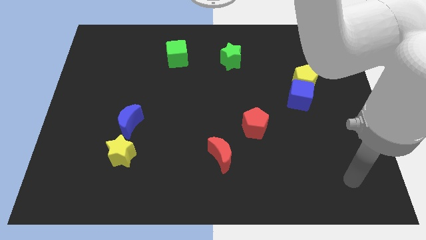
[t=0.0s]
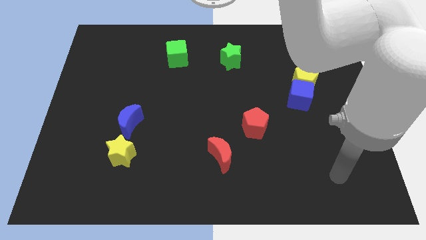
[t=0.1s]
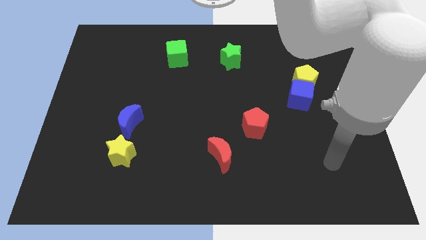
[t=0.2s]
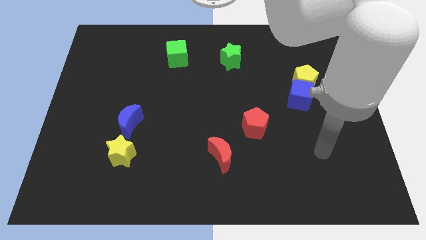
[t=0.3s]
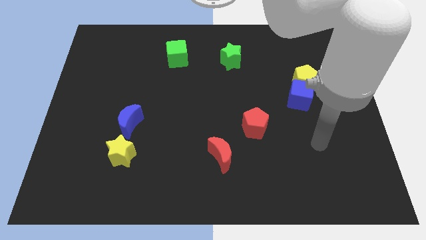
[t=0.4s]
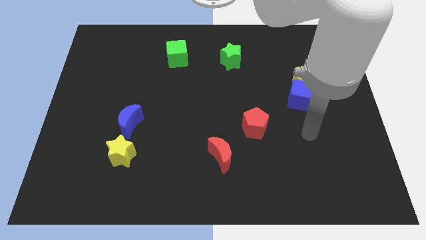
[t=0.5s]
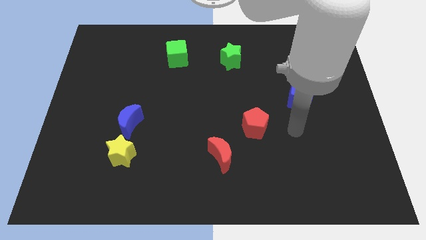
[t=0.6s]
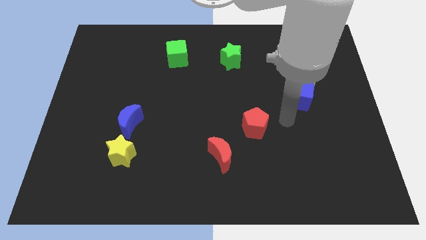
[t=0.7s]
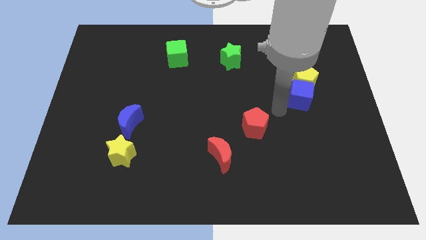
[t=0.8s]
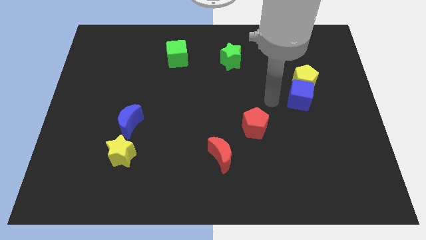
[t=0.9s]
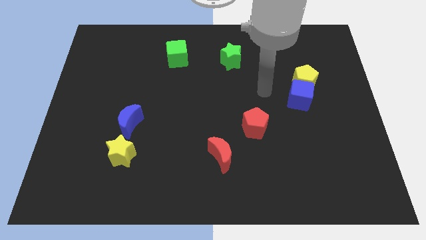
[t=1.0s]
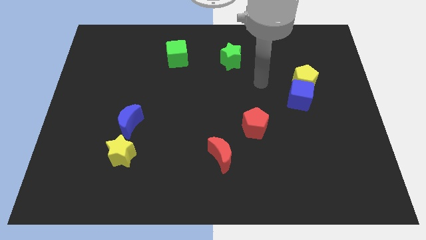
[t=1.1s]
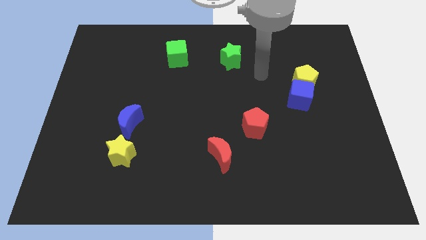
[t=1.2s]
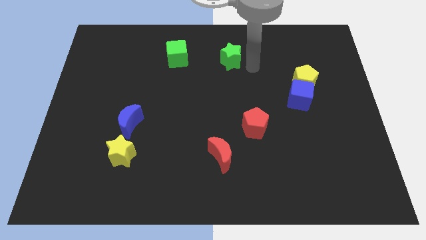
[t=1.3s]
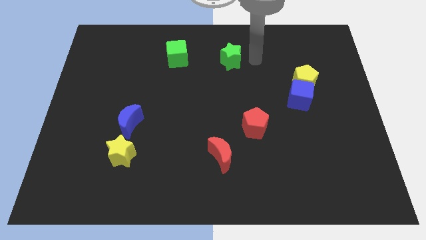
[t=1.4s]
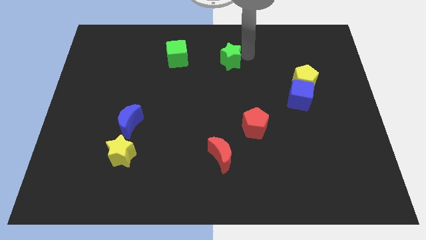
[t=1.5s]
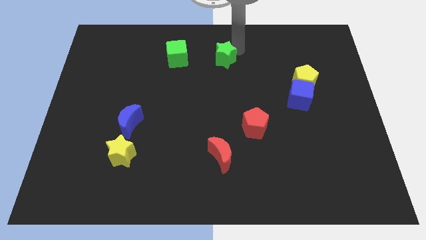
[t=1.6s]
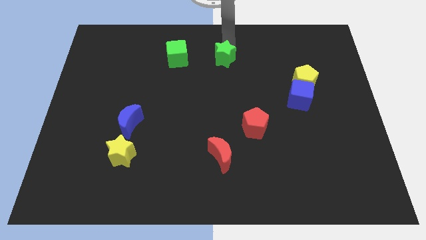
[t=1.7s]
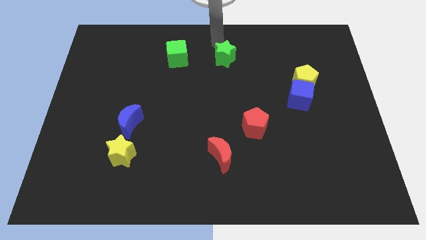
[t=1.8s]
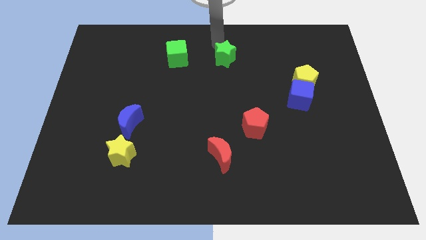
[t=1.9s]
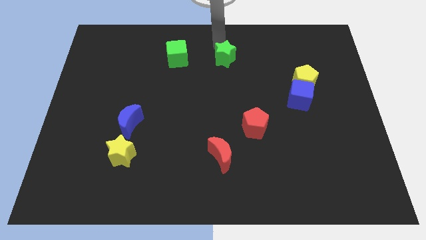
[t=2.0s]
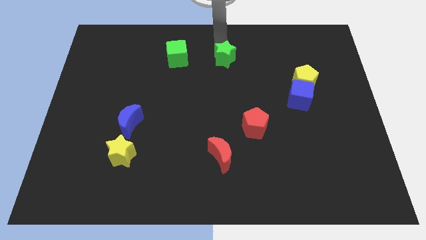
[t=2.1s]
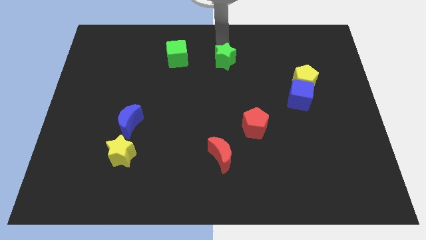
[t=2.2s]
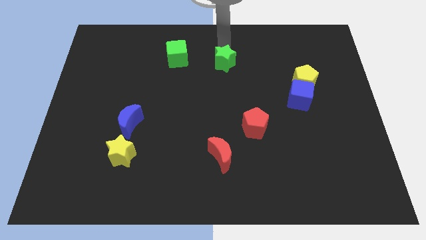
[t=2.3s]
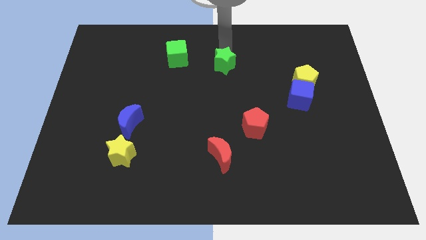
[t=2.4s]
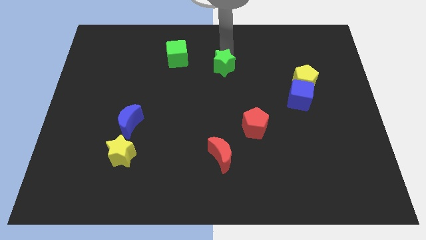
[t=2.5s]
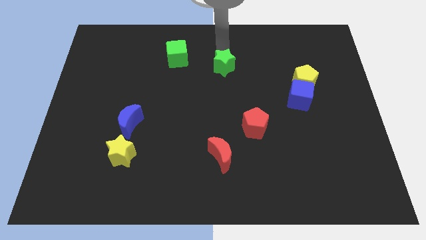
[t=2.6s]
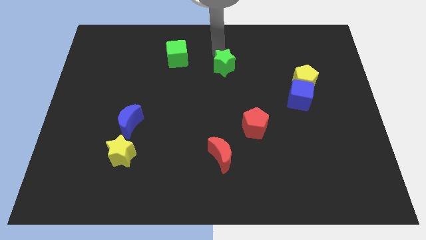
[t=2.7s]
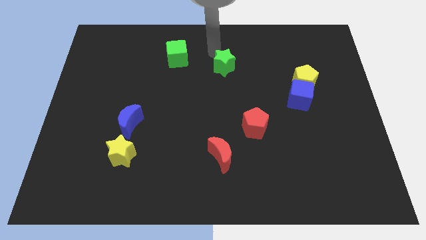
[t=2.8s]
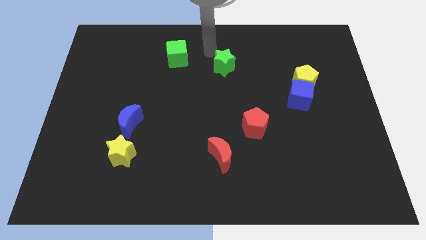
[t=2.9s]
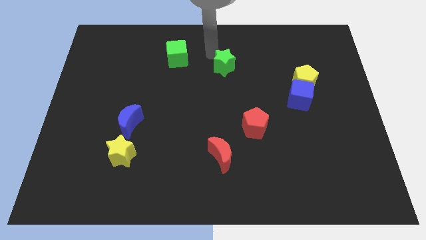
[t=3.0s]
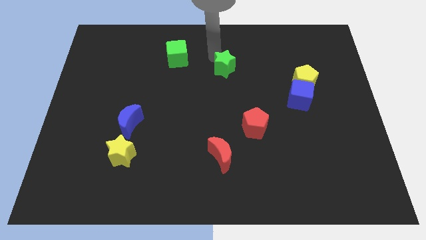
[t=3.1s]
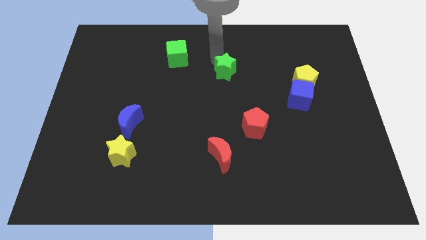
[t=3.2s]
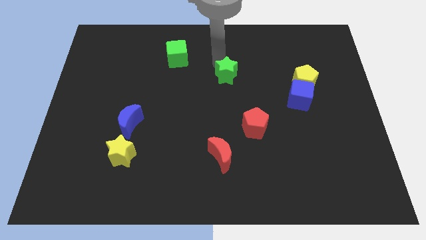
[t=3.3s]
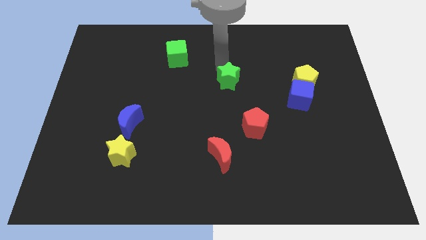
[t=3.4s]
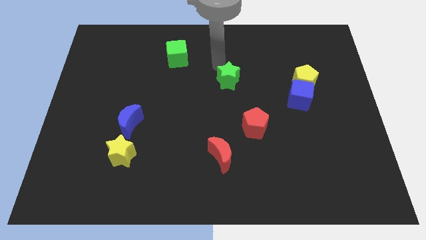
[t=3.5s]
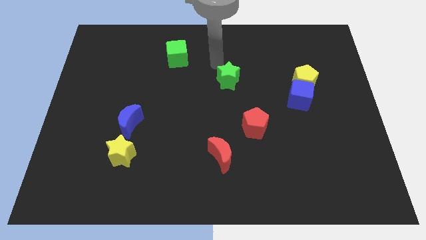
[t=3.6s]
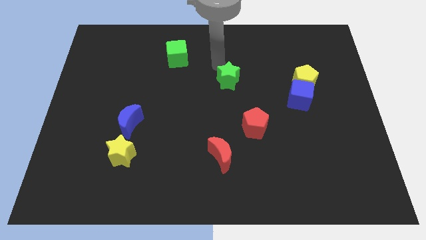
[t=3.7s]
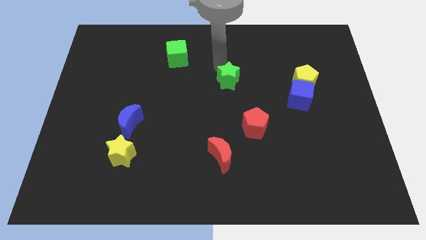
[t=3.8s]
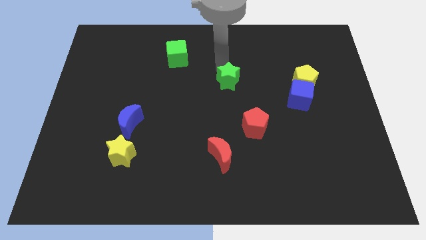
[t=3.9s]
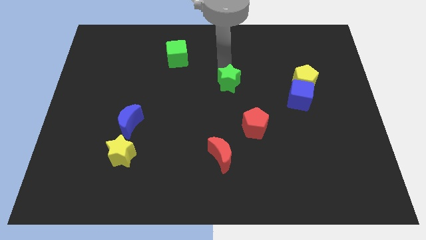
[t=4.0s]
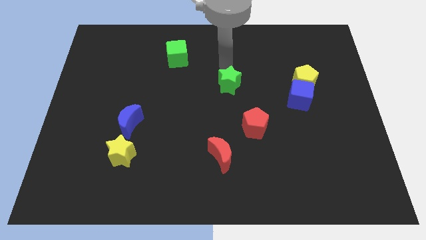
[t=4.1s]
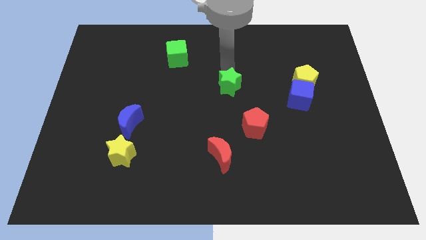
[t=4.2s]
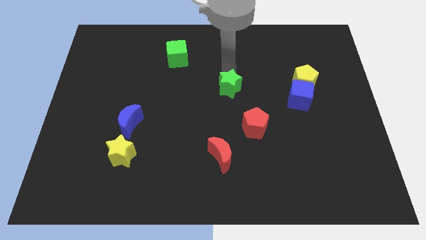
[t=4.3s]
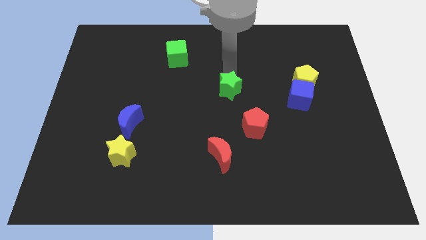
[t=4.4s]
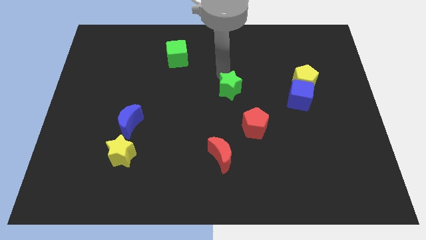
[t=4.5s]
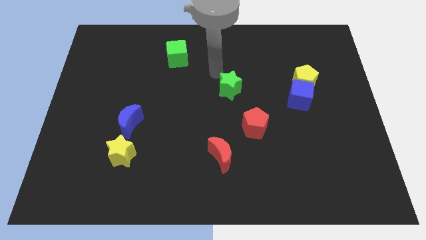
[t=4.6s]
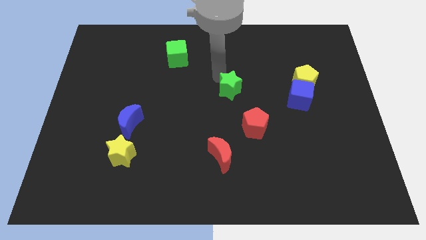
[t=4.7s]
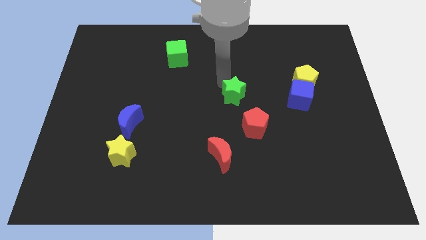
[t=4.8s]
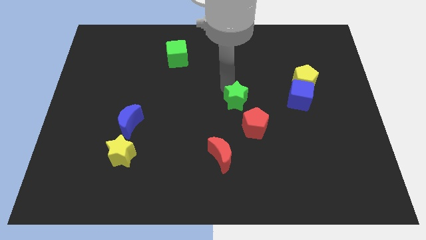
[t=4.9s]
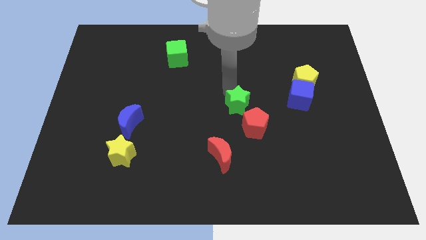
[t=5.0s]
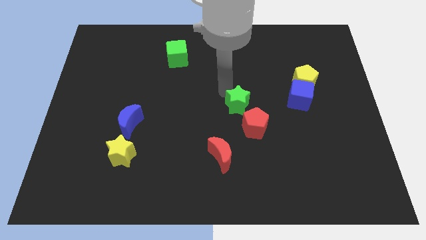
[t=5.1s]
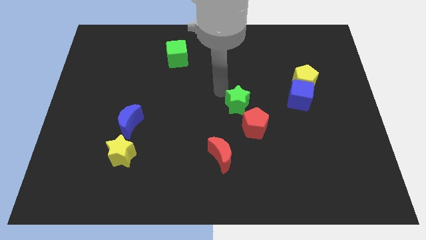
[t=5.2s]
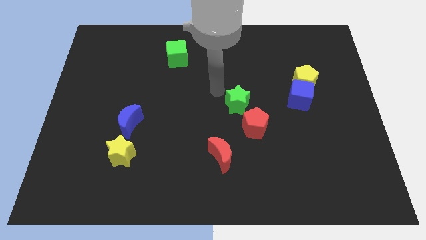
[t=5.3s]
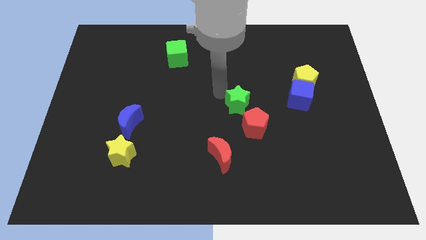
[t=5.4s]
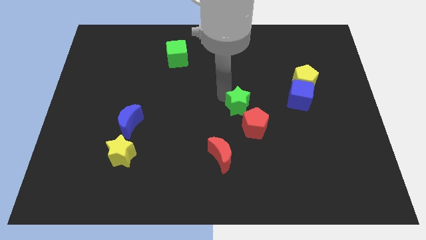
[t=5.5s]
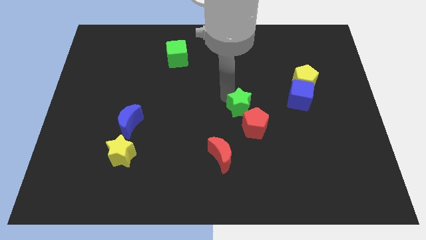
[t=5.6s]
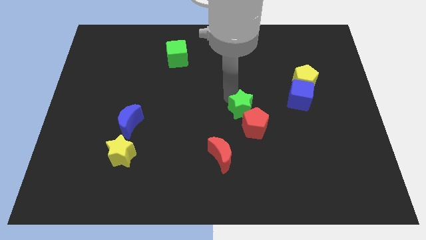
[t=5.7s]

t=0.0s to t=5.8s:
push the green star towards the red pentagon

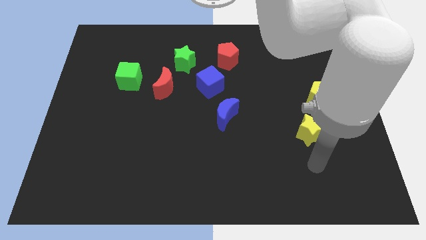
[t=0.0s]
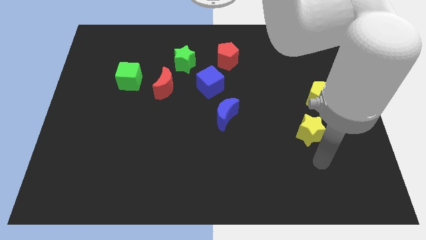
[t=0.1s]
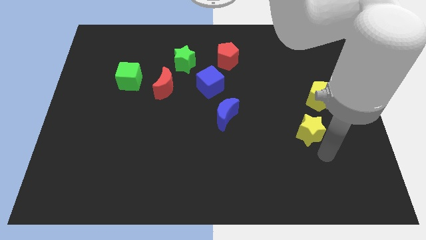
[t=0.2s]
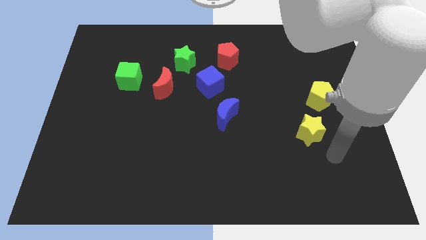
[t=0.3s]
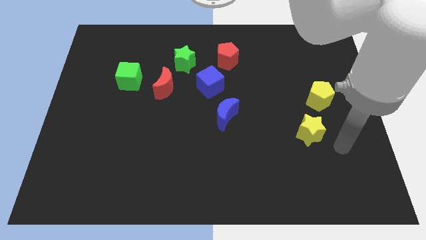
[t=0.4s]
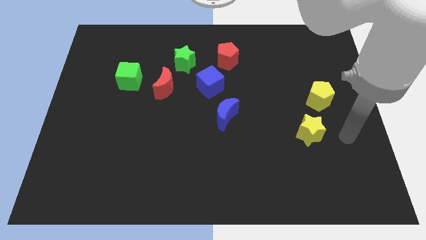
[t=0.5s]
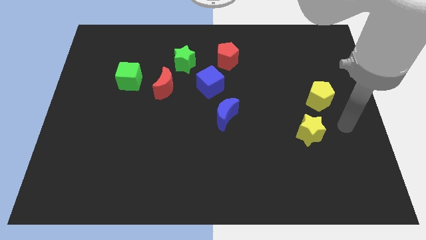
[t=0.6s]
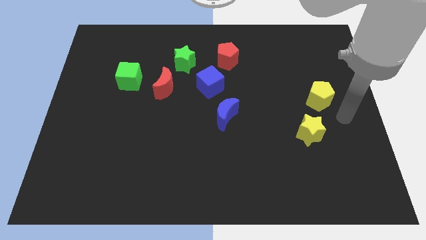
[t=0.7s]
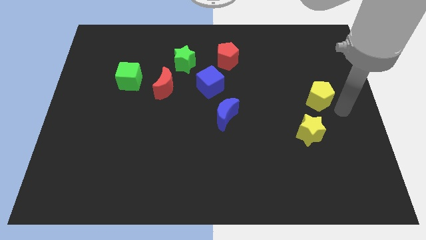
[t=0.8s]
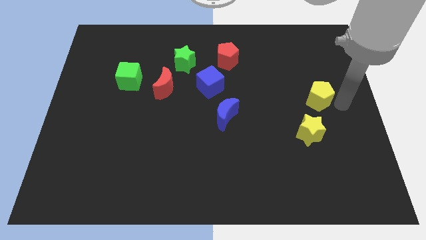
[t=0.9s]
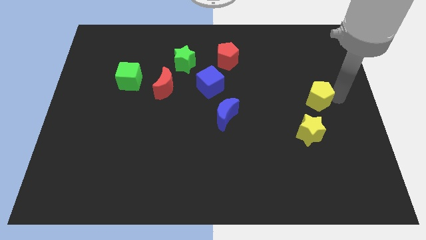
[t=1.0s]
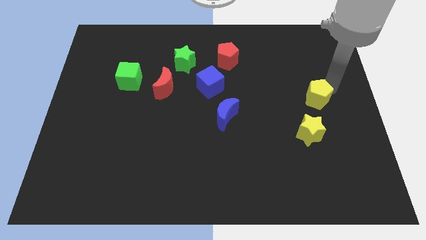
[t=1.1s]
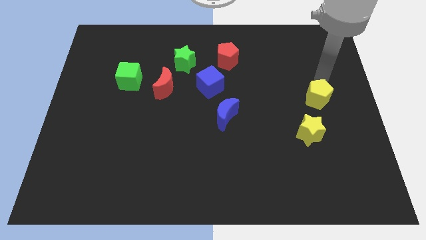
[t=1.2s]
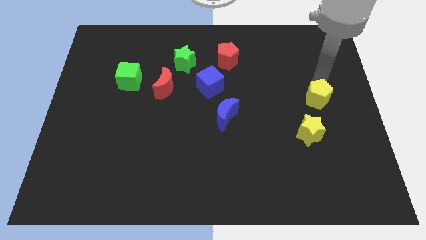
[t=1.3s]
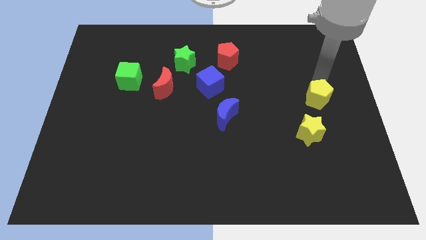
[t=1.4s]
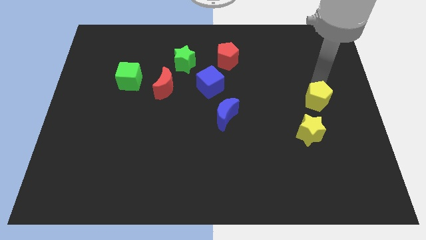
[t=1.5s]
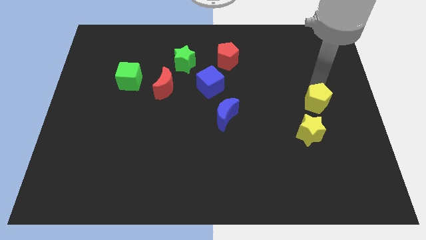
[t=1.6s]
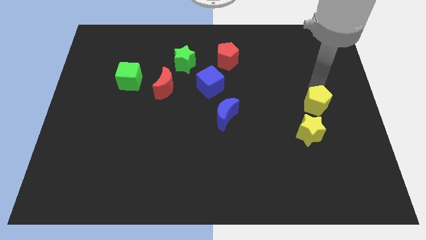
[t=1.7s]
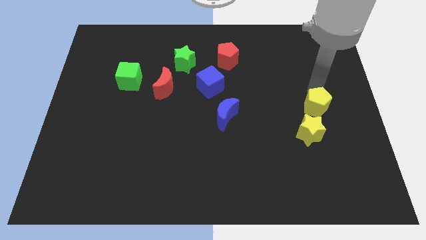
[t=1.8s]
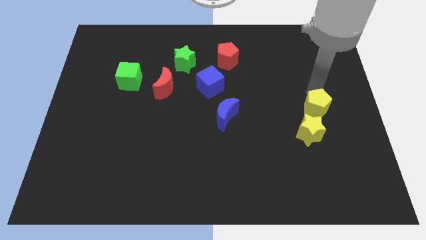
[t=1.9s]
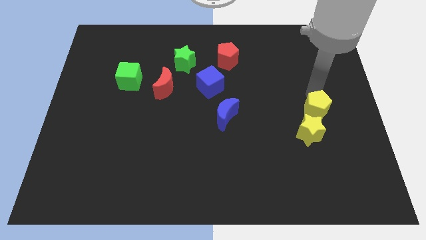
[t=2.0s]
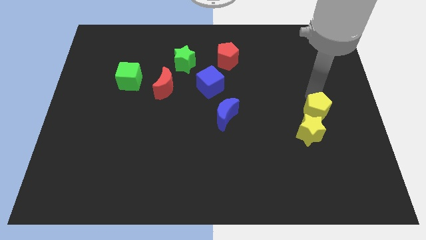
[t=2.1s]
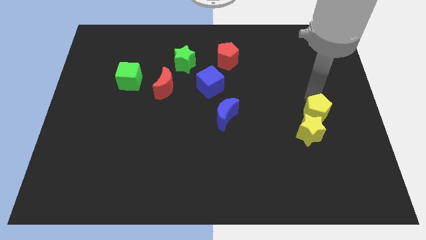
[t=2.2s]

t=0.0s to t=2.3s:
put the yellow pentagon next to the yellow star
